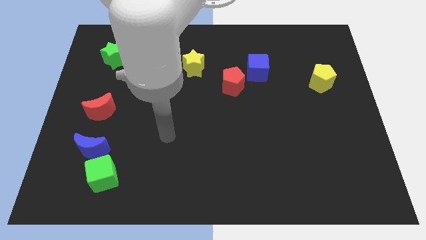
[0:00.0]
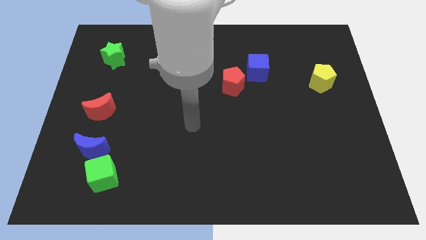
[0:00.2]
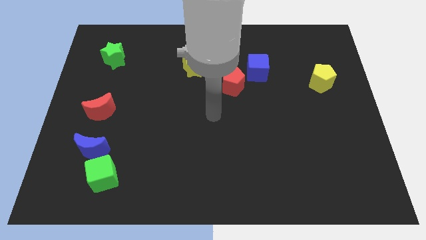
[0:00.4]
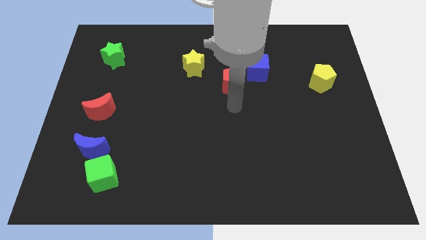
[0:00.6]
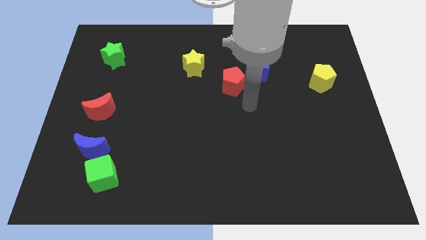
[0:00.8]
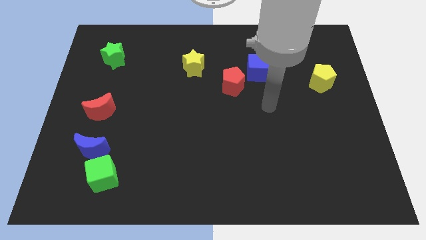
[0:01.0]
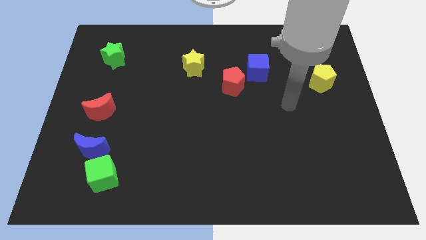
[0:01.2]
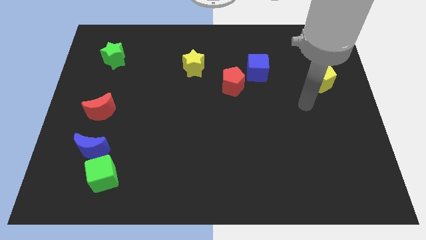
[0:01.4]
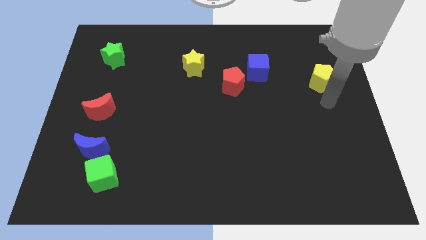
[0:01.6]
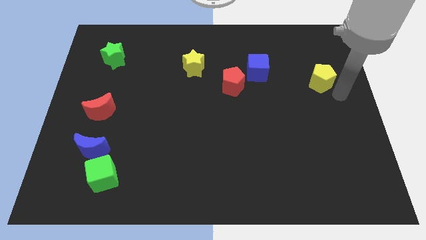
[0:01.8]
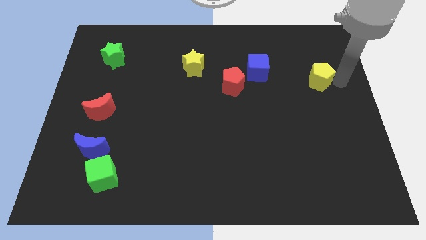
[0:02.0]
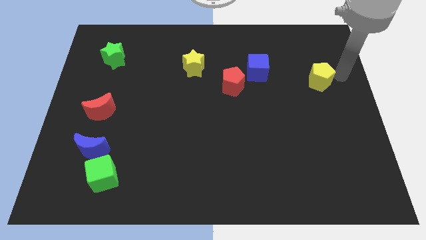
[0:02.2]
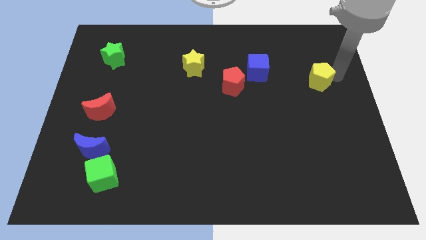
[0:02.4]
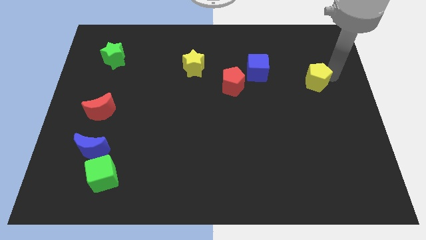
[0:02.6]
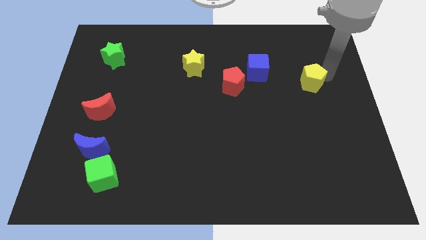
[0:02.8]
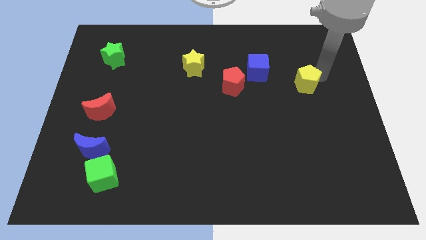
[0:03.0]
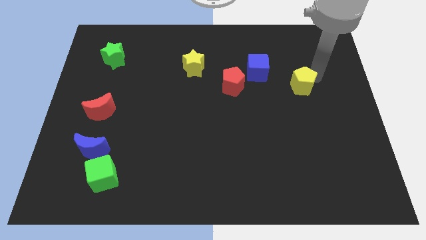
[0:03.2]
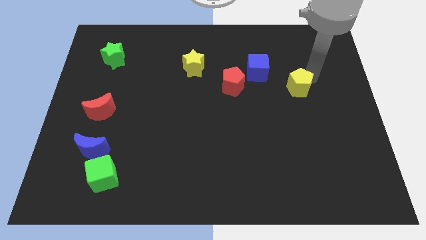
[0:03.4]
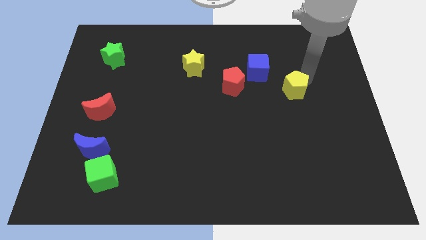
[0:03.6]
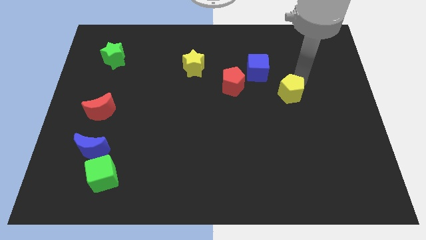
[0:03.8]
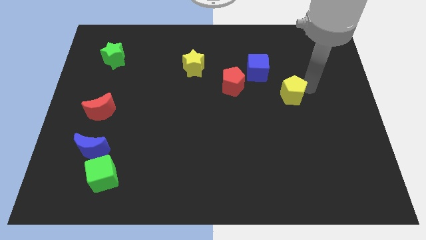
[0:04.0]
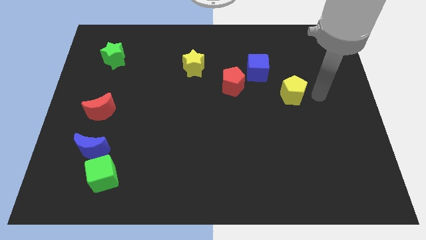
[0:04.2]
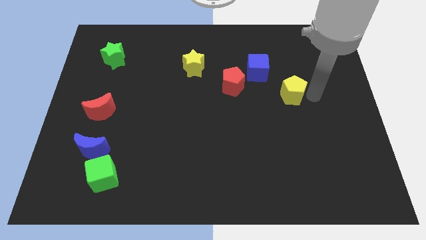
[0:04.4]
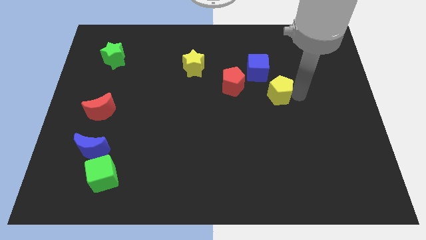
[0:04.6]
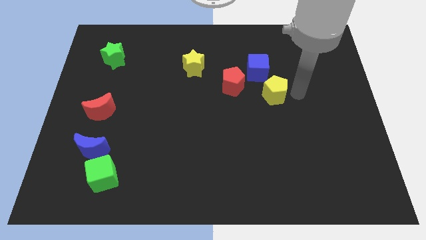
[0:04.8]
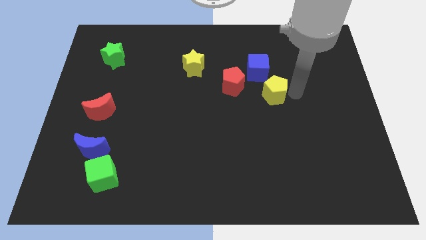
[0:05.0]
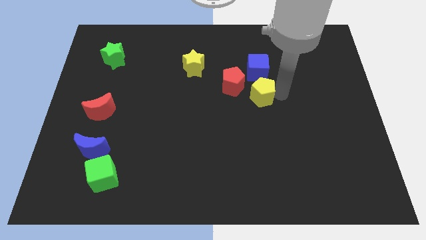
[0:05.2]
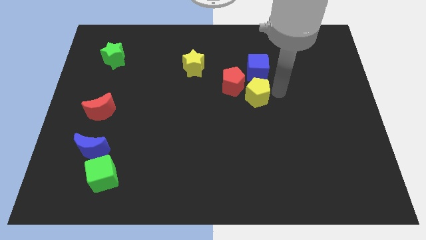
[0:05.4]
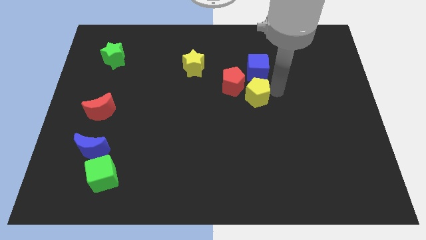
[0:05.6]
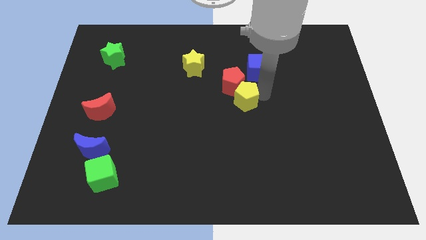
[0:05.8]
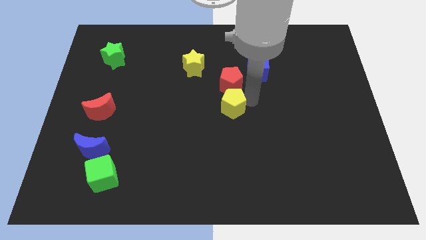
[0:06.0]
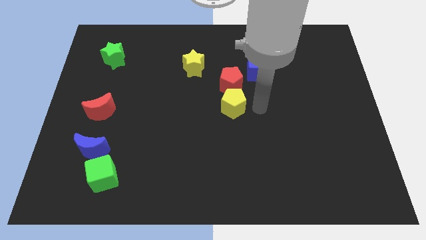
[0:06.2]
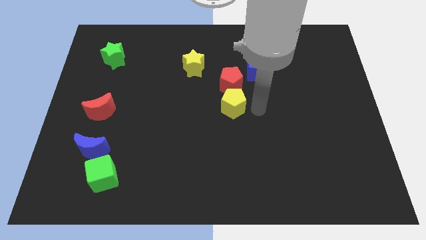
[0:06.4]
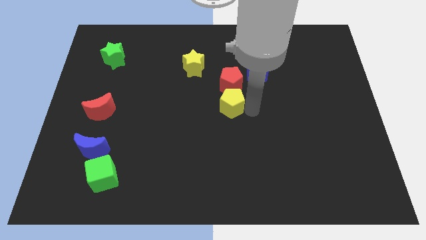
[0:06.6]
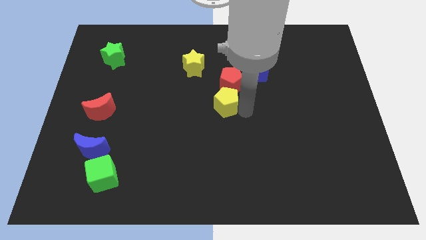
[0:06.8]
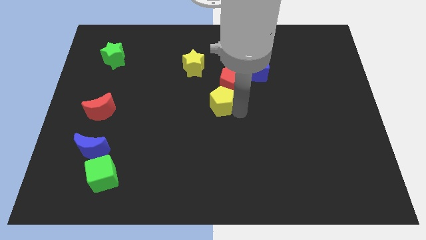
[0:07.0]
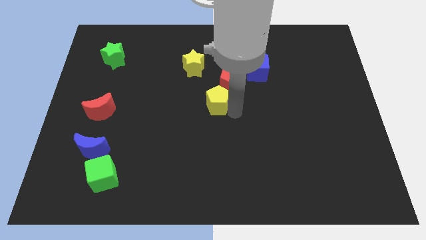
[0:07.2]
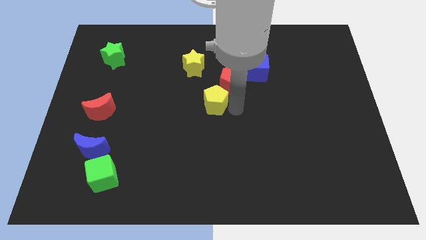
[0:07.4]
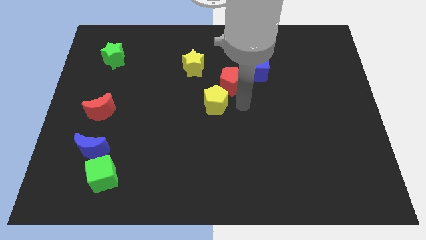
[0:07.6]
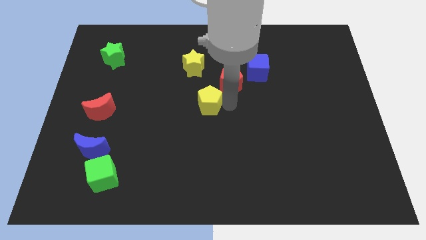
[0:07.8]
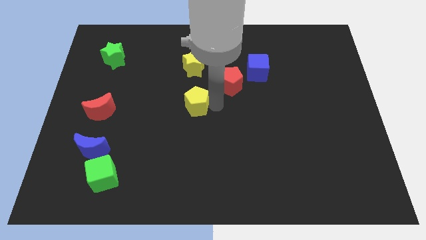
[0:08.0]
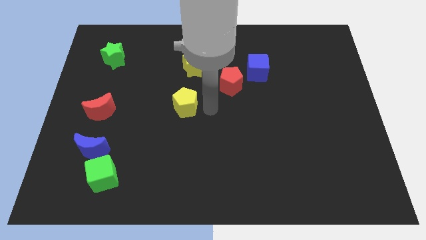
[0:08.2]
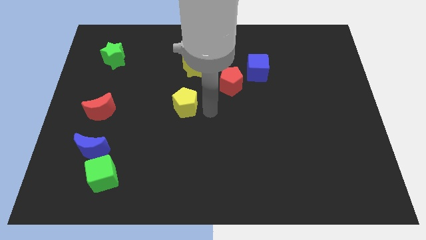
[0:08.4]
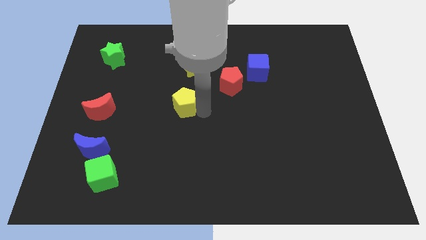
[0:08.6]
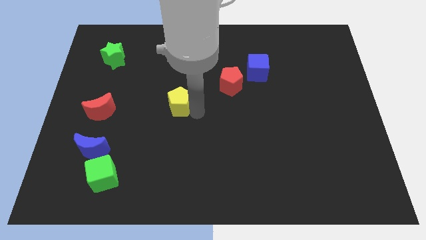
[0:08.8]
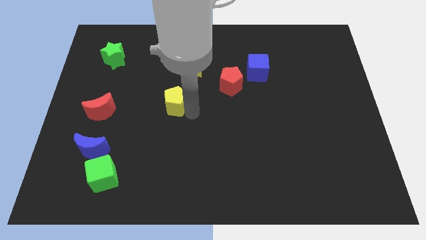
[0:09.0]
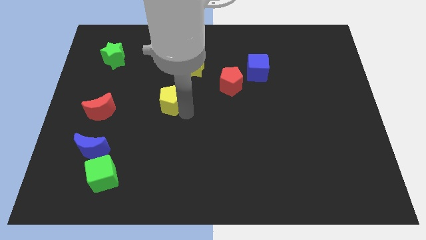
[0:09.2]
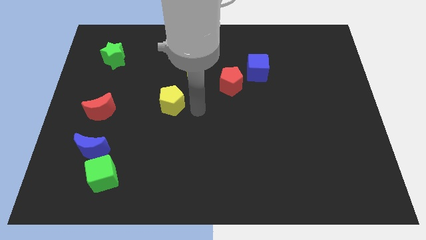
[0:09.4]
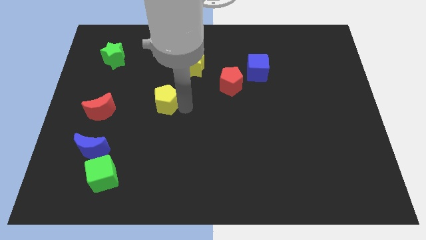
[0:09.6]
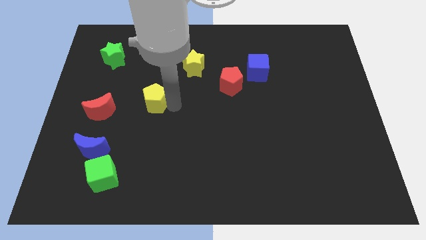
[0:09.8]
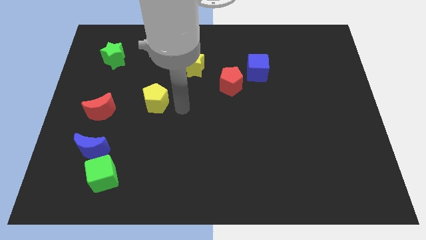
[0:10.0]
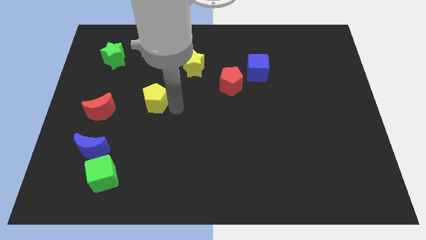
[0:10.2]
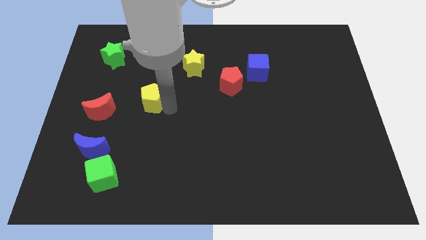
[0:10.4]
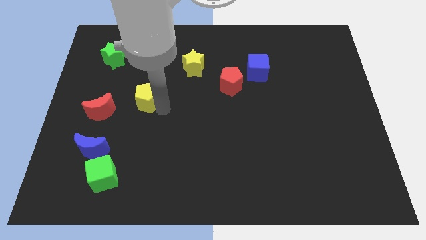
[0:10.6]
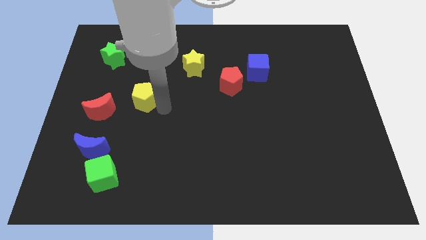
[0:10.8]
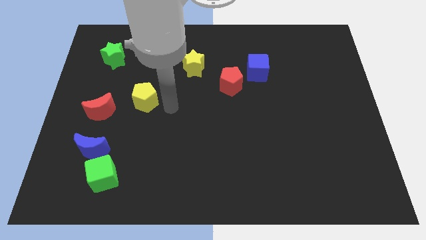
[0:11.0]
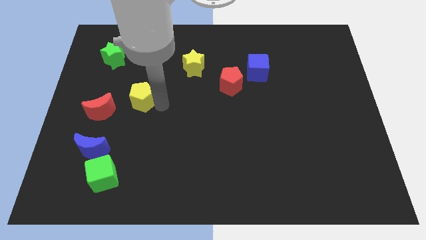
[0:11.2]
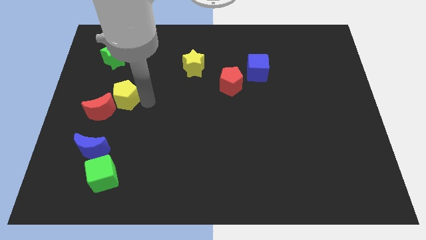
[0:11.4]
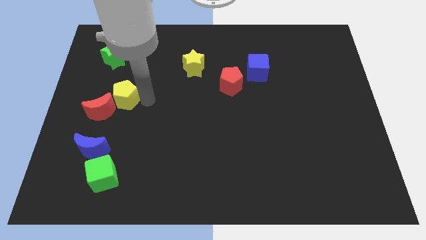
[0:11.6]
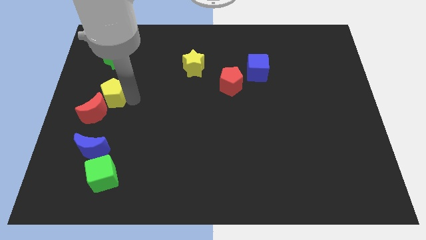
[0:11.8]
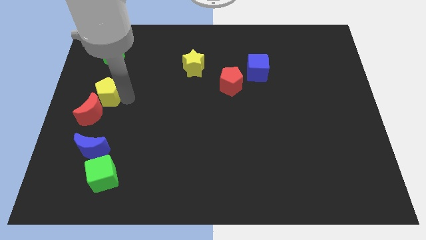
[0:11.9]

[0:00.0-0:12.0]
slide the yellow pentagon to the center left

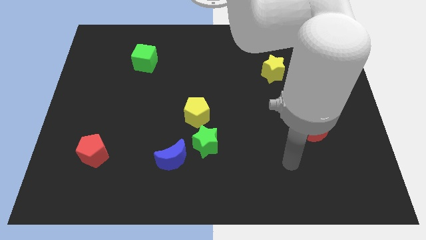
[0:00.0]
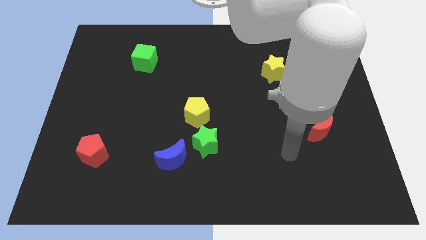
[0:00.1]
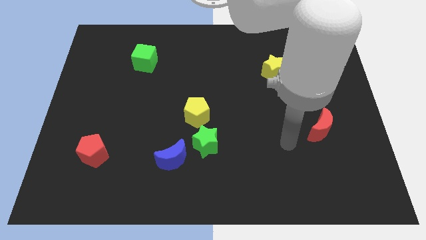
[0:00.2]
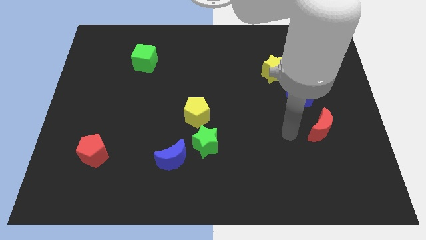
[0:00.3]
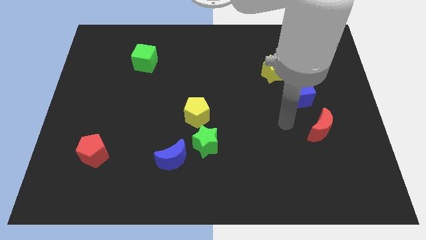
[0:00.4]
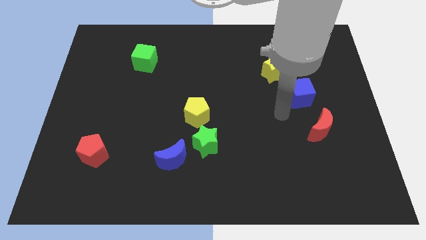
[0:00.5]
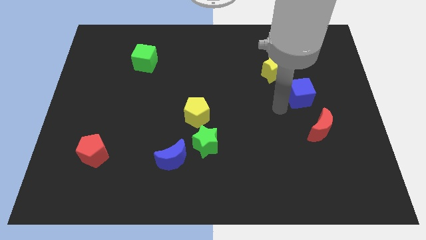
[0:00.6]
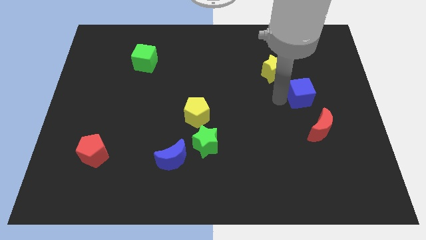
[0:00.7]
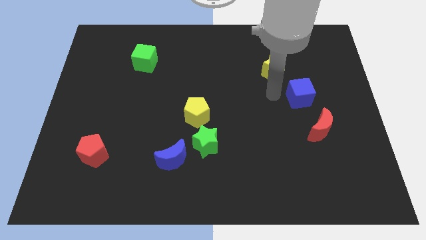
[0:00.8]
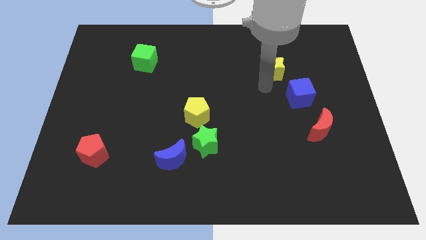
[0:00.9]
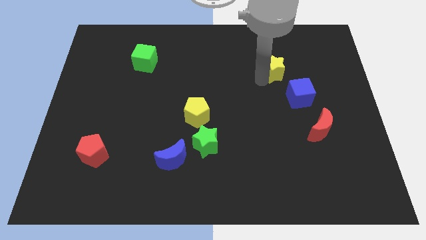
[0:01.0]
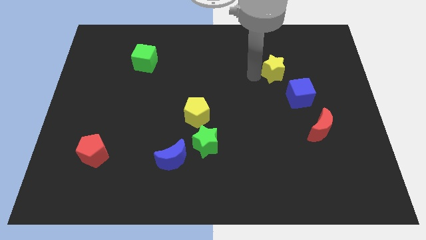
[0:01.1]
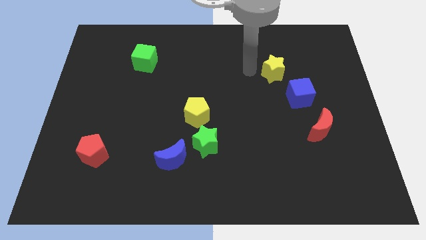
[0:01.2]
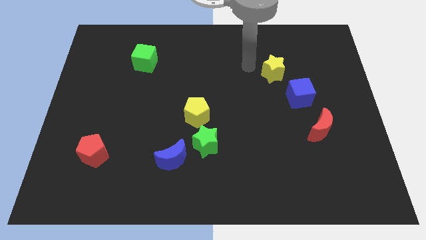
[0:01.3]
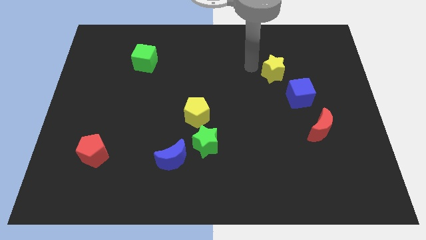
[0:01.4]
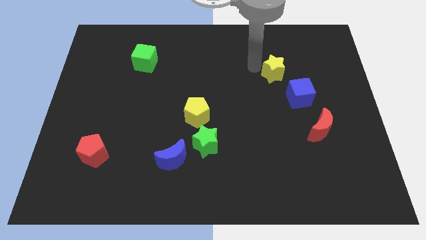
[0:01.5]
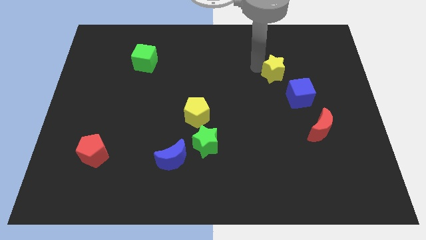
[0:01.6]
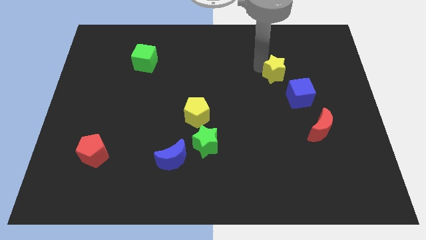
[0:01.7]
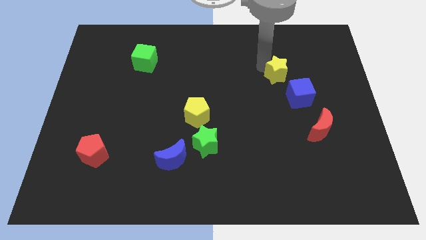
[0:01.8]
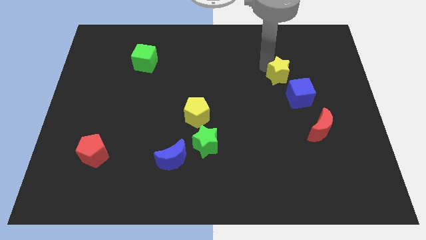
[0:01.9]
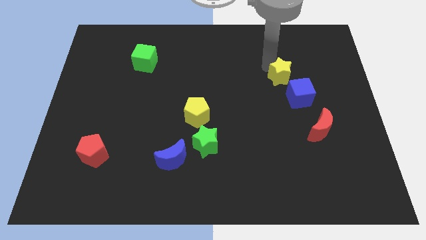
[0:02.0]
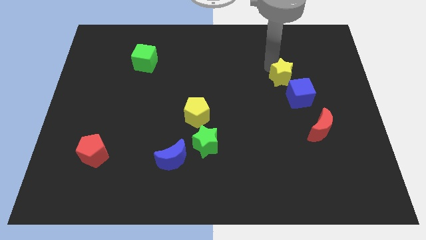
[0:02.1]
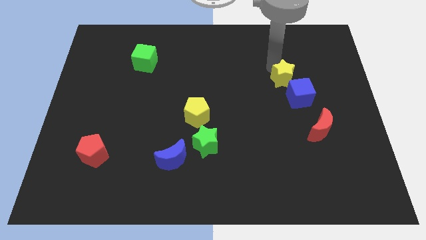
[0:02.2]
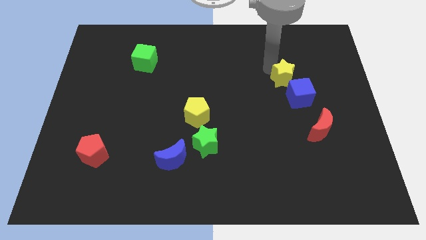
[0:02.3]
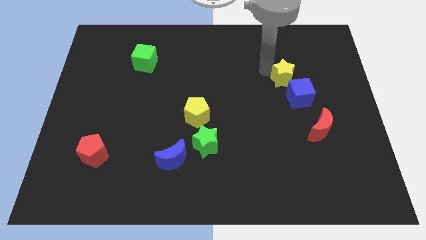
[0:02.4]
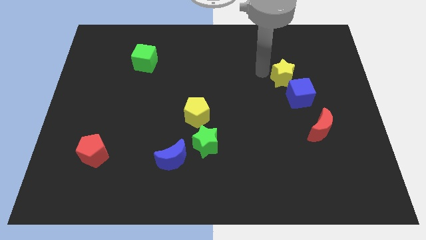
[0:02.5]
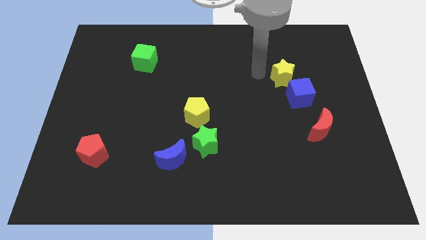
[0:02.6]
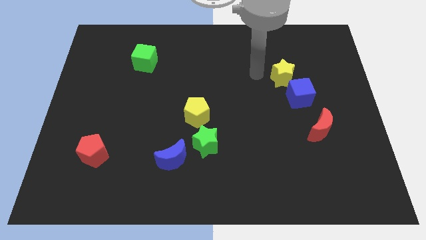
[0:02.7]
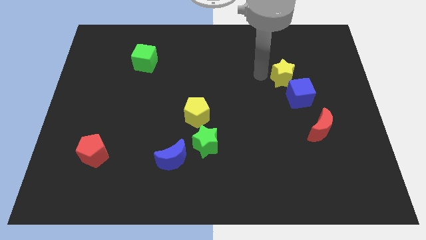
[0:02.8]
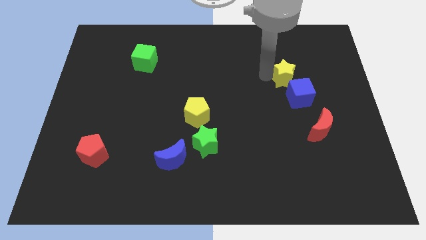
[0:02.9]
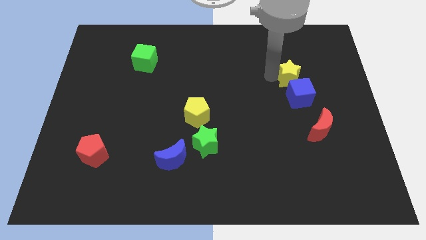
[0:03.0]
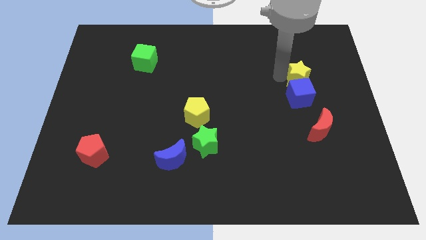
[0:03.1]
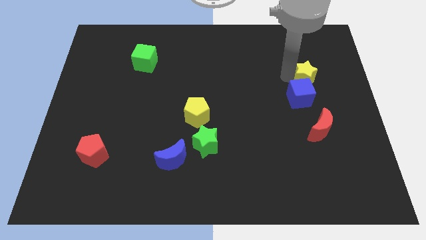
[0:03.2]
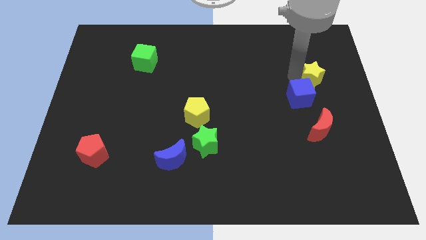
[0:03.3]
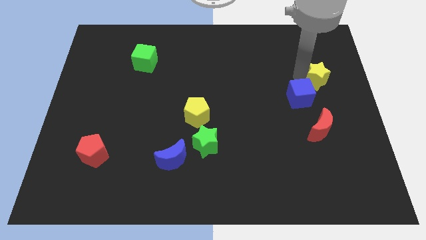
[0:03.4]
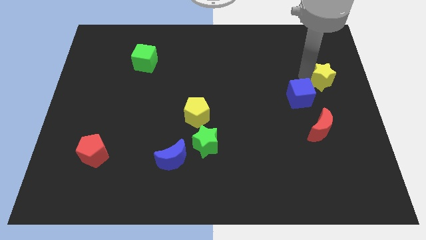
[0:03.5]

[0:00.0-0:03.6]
slide the yellow star to the right side of the board
